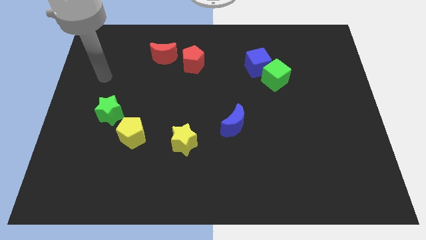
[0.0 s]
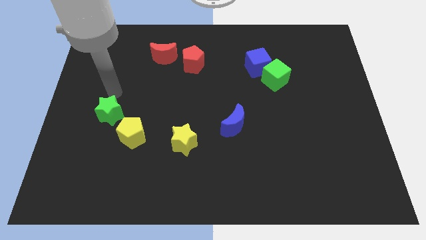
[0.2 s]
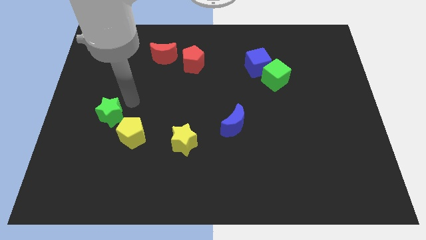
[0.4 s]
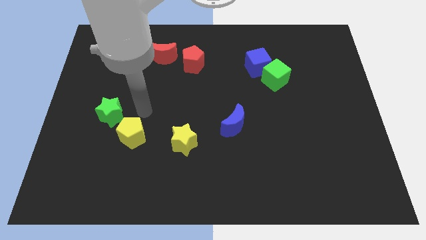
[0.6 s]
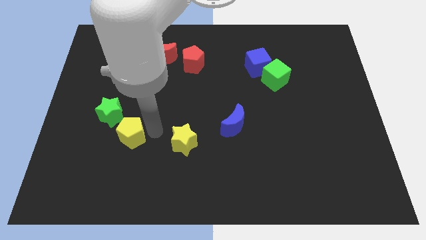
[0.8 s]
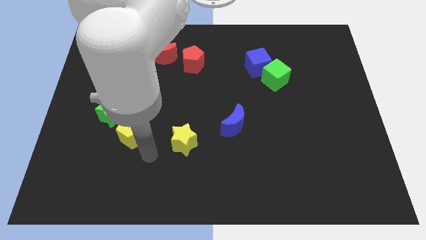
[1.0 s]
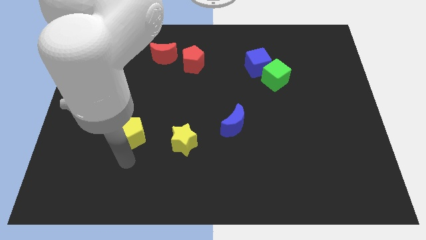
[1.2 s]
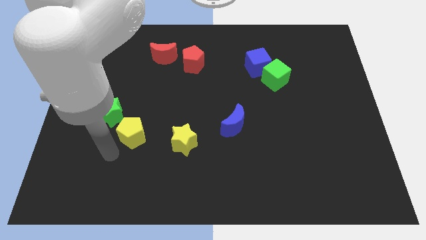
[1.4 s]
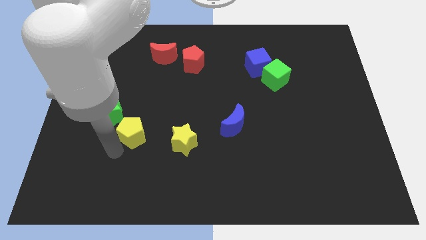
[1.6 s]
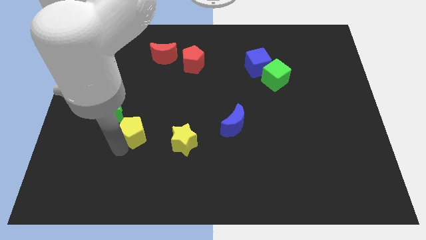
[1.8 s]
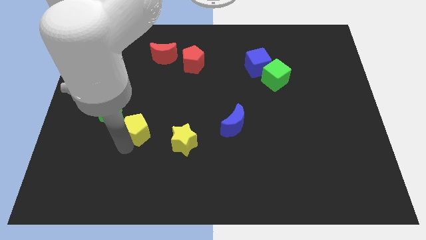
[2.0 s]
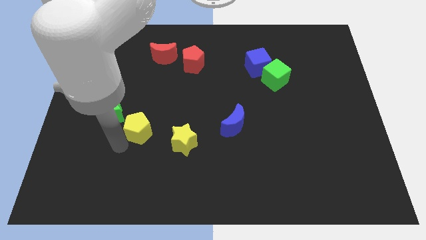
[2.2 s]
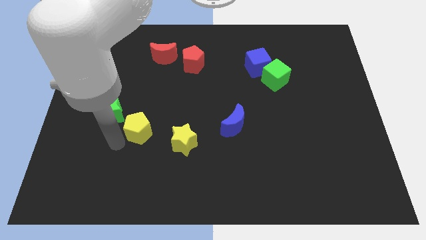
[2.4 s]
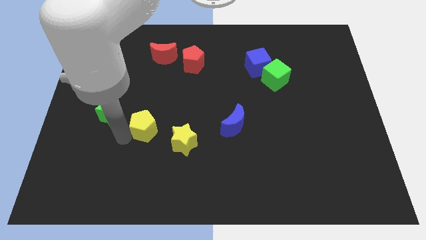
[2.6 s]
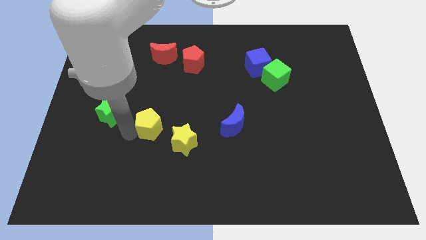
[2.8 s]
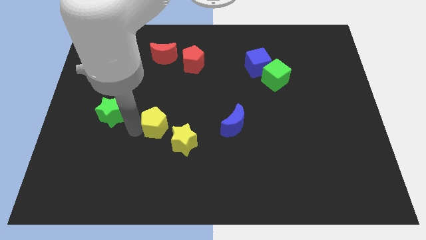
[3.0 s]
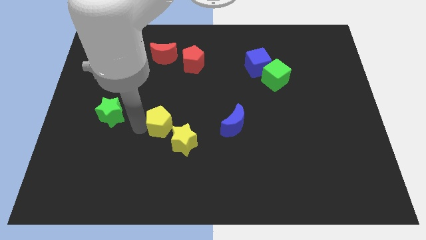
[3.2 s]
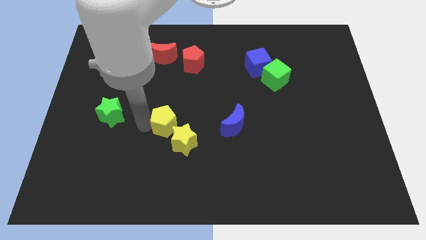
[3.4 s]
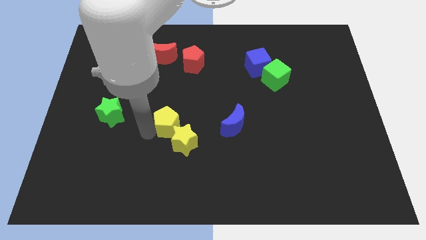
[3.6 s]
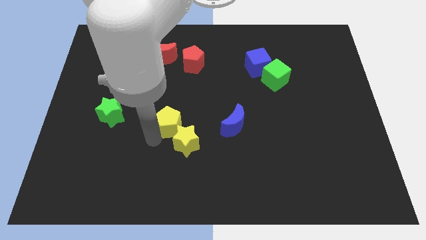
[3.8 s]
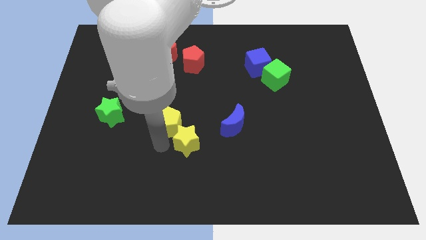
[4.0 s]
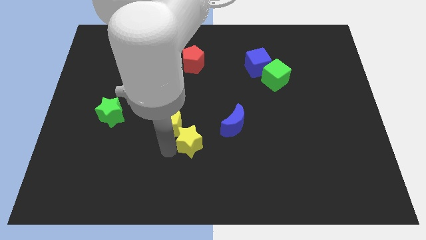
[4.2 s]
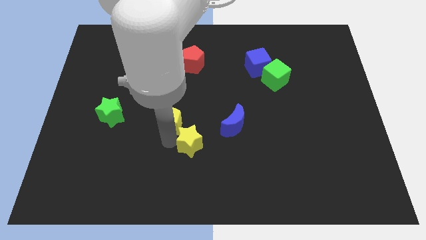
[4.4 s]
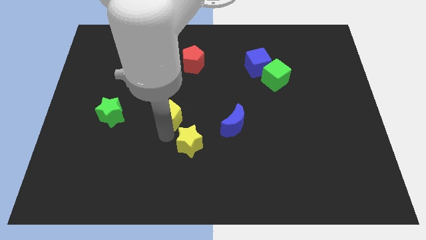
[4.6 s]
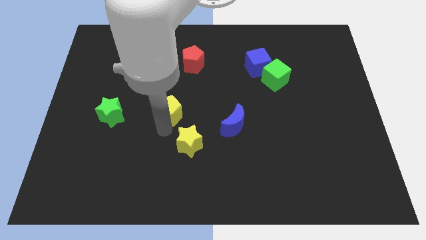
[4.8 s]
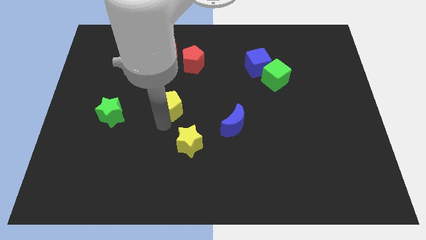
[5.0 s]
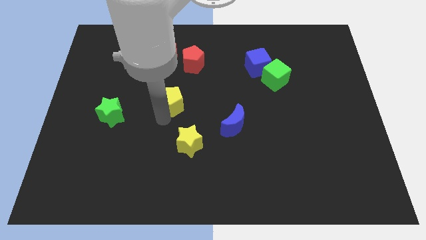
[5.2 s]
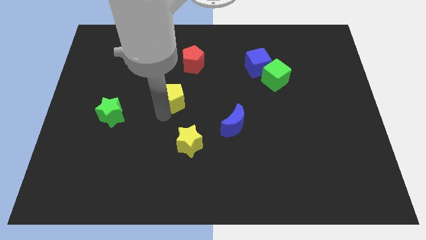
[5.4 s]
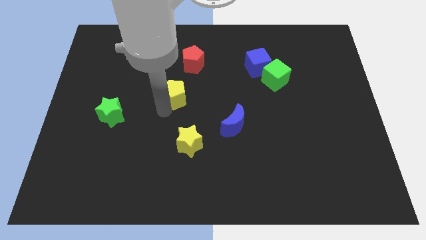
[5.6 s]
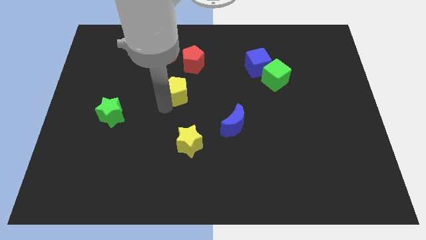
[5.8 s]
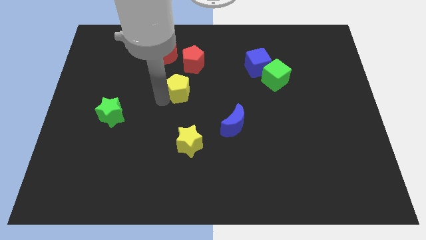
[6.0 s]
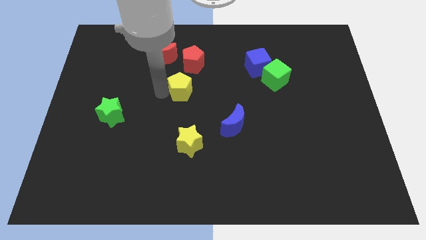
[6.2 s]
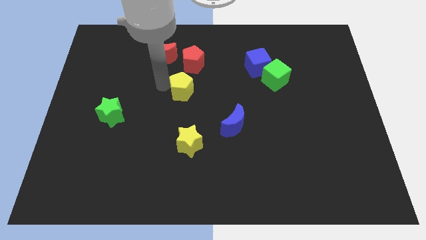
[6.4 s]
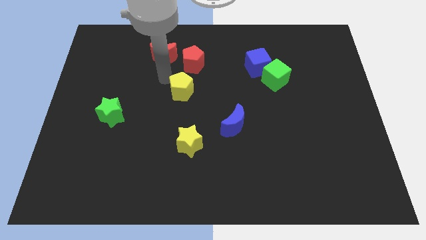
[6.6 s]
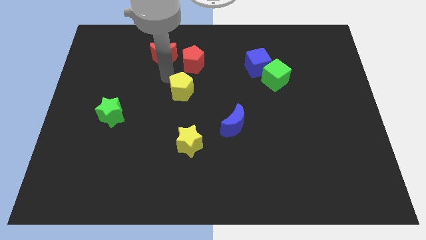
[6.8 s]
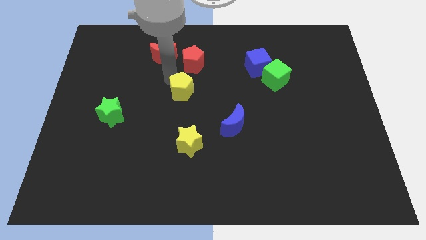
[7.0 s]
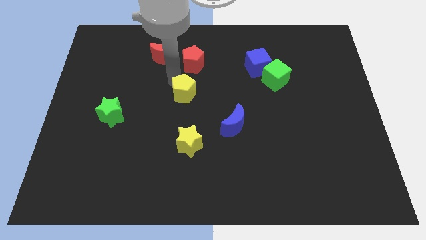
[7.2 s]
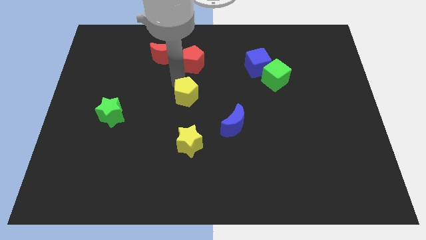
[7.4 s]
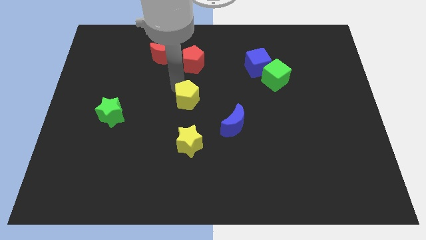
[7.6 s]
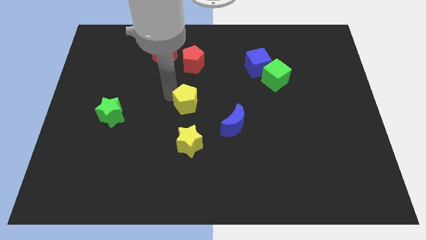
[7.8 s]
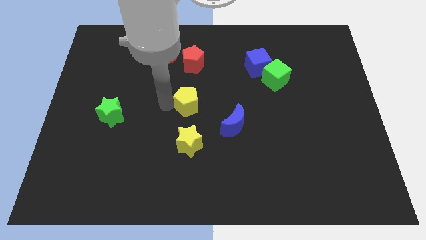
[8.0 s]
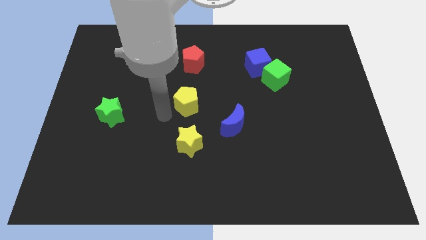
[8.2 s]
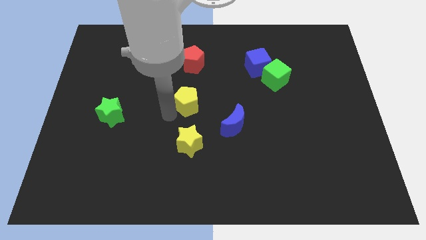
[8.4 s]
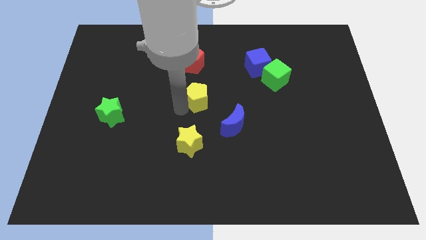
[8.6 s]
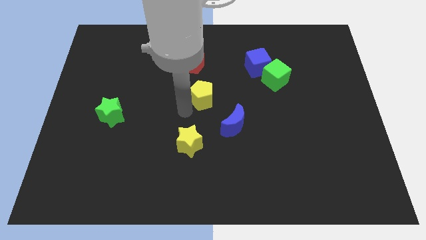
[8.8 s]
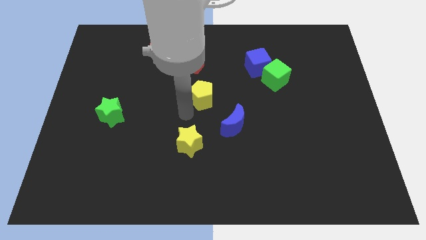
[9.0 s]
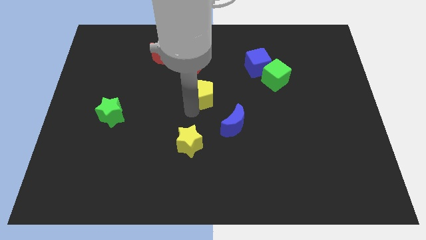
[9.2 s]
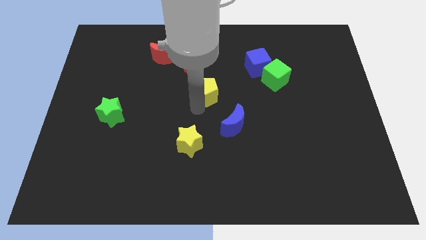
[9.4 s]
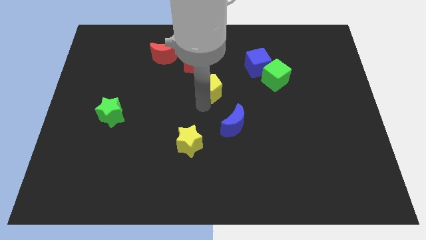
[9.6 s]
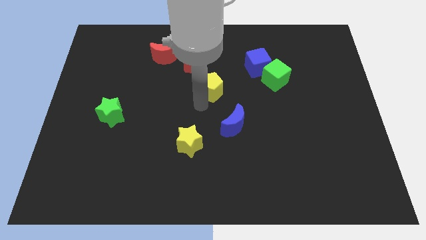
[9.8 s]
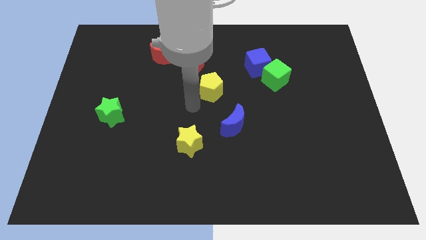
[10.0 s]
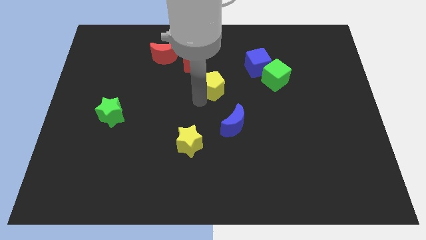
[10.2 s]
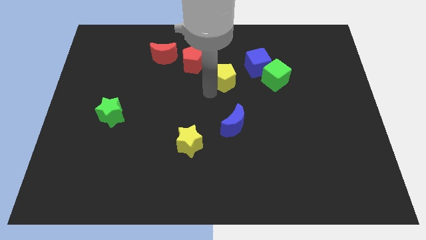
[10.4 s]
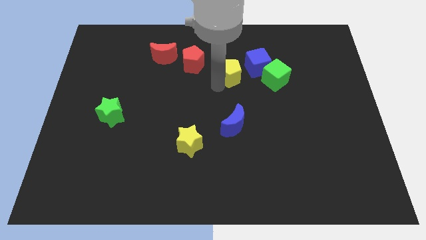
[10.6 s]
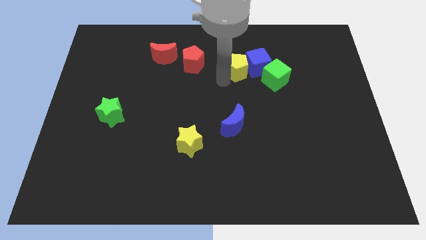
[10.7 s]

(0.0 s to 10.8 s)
move the yellow pentagon next to the blue cube

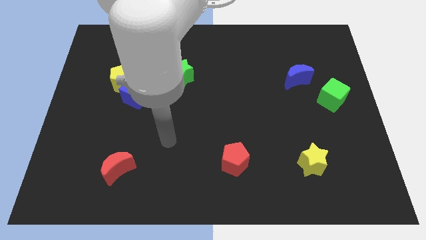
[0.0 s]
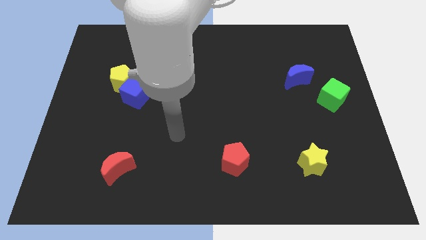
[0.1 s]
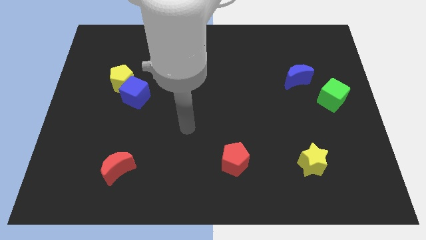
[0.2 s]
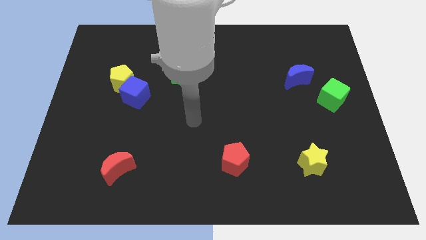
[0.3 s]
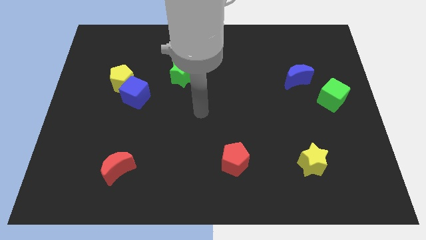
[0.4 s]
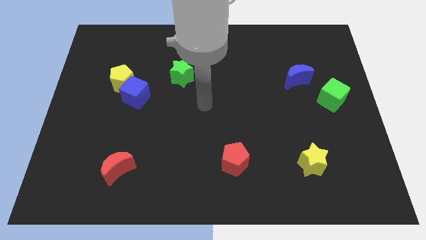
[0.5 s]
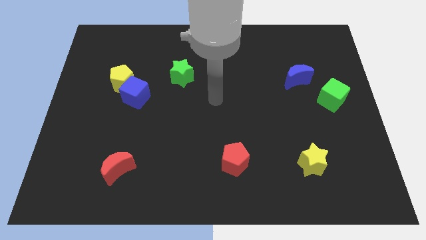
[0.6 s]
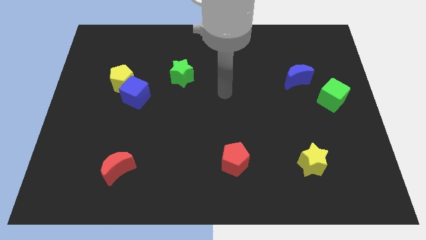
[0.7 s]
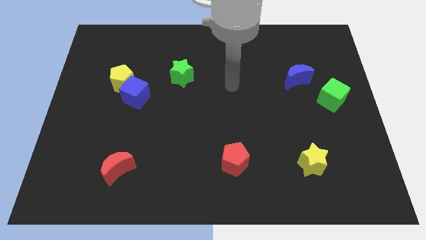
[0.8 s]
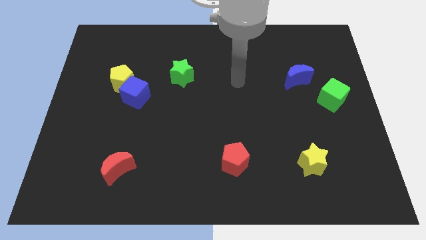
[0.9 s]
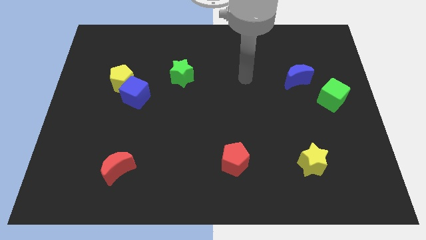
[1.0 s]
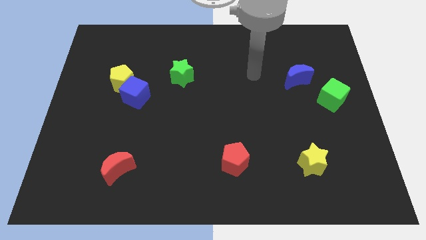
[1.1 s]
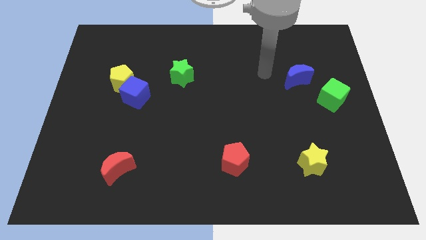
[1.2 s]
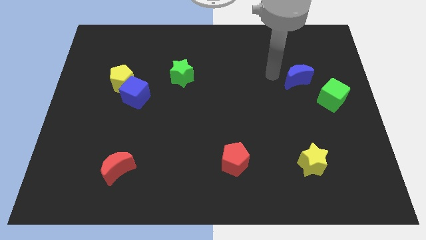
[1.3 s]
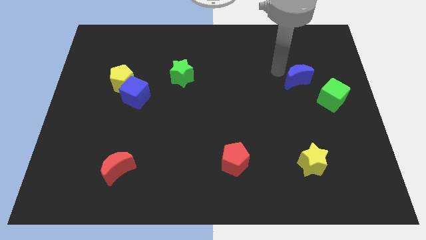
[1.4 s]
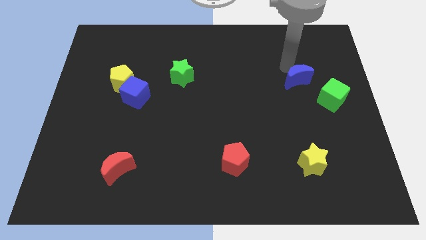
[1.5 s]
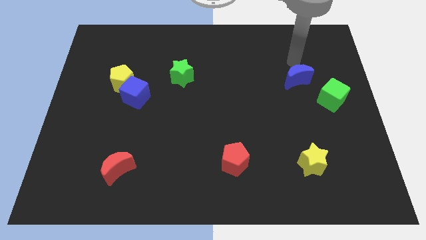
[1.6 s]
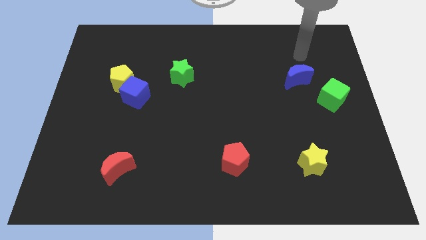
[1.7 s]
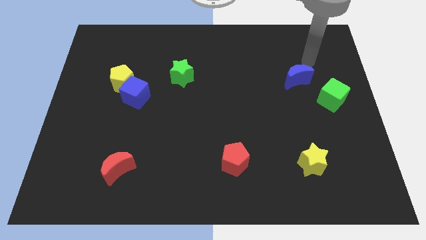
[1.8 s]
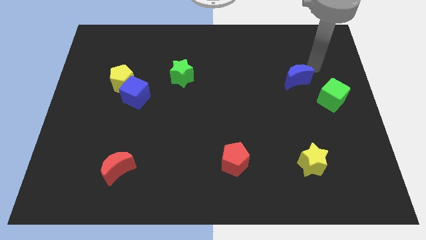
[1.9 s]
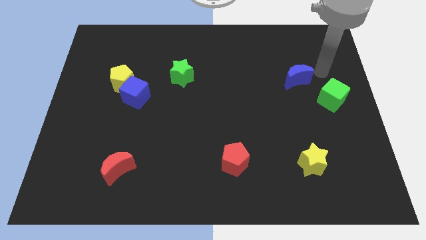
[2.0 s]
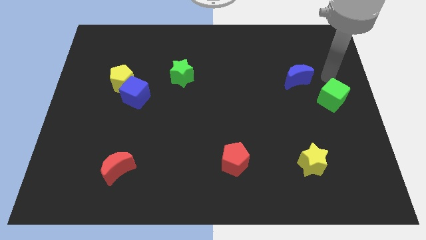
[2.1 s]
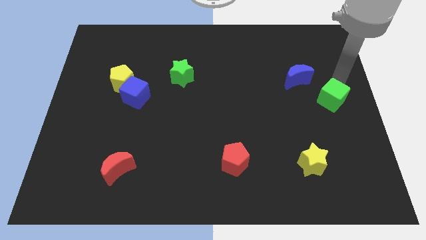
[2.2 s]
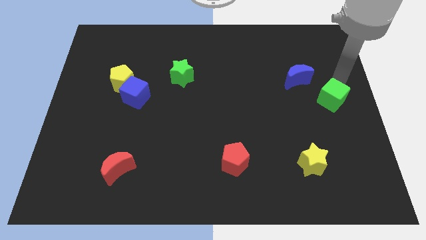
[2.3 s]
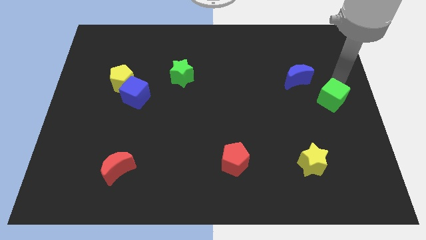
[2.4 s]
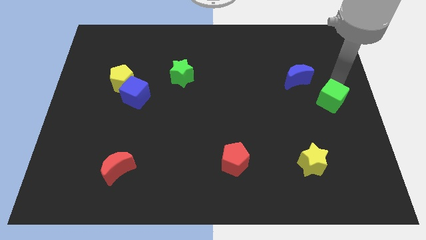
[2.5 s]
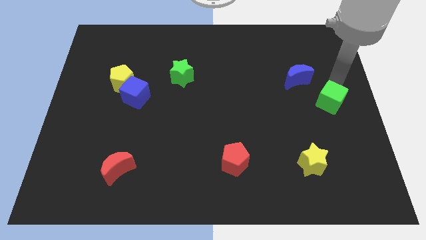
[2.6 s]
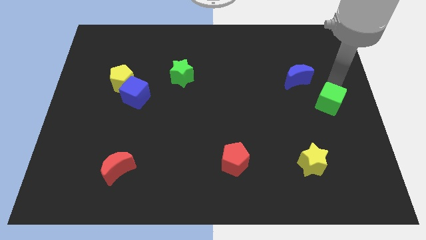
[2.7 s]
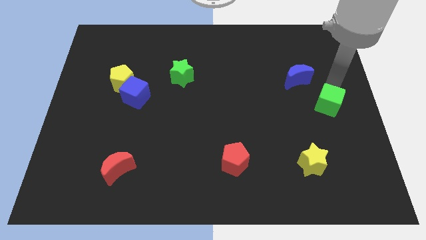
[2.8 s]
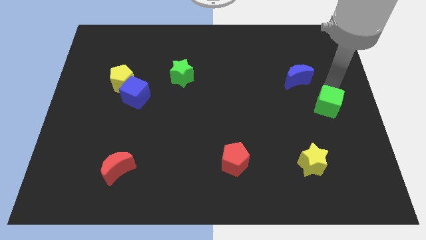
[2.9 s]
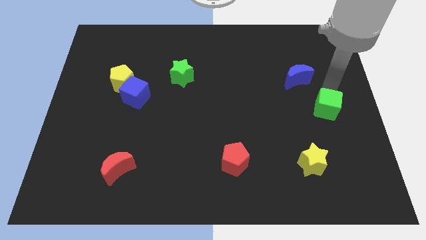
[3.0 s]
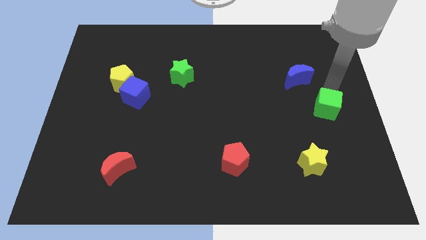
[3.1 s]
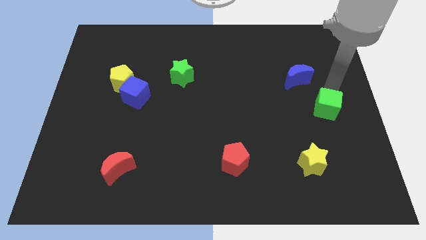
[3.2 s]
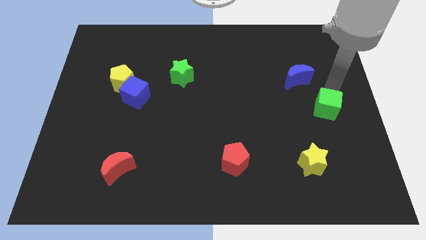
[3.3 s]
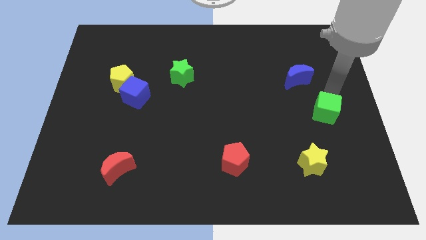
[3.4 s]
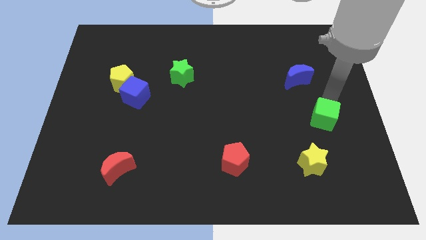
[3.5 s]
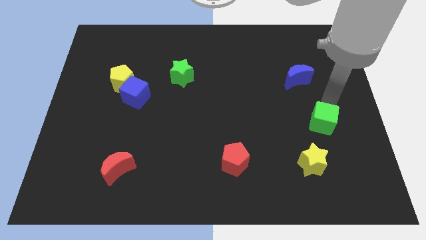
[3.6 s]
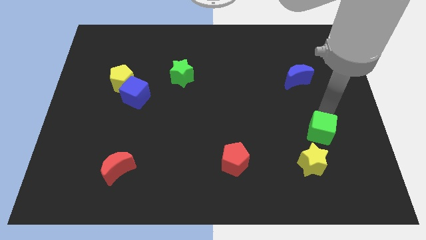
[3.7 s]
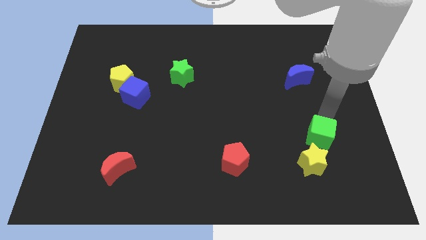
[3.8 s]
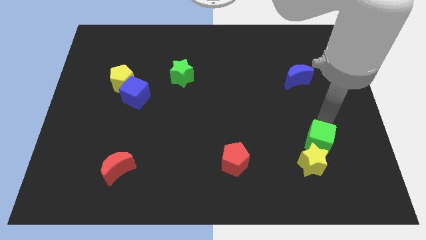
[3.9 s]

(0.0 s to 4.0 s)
put the green cube close to the yellow star
